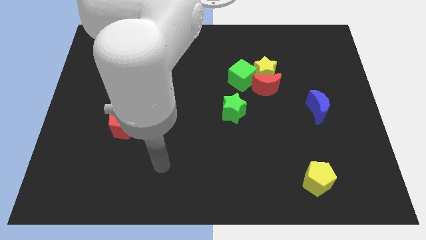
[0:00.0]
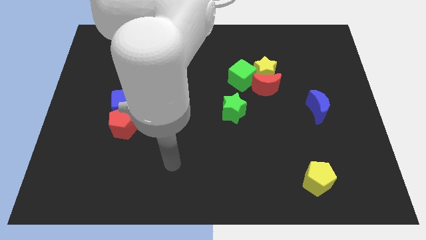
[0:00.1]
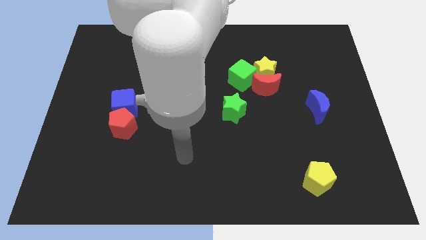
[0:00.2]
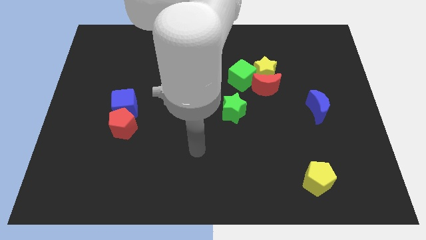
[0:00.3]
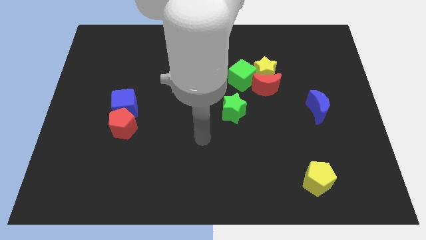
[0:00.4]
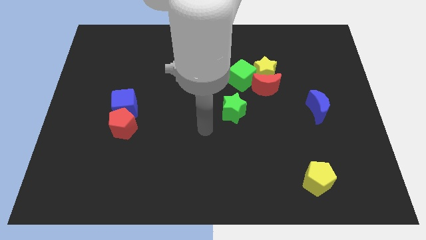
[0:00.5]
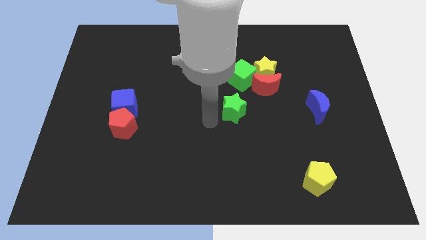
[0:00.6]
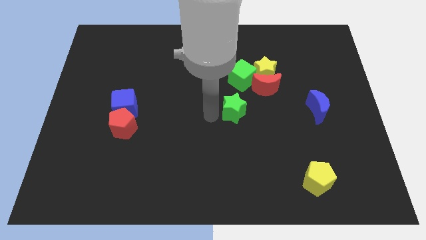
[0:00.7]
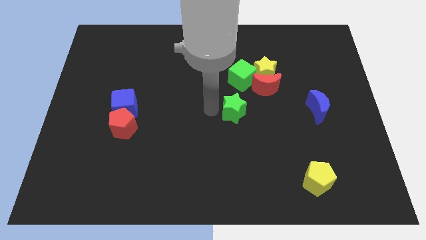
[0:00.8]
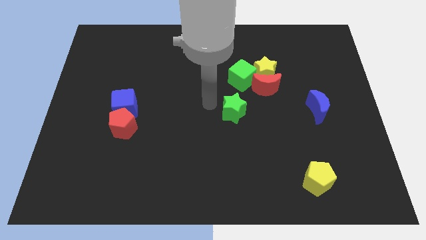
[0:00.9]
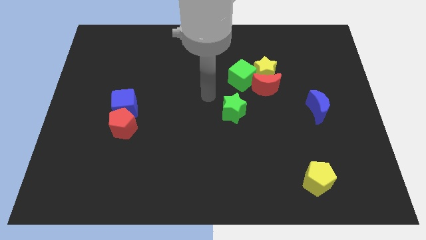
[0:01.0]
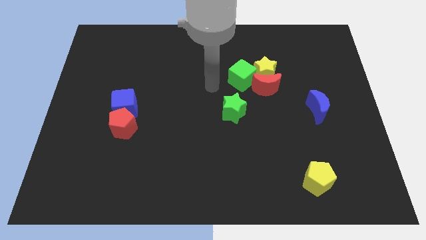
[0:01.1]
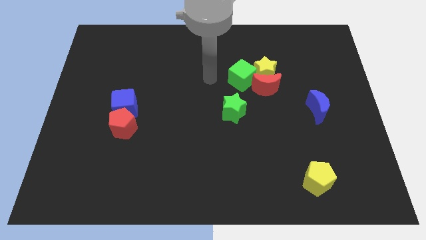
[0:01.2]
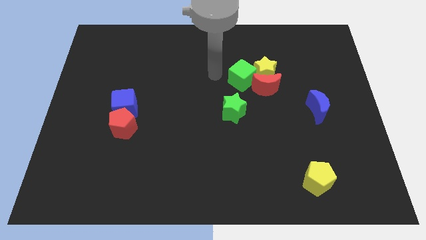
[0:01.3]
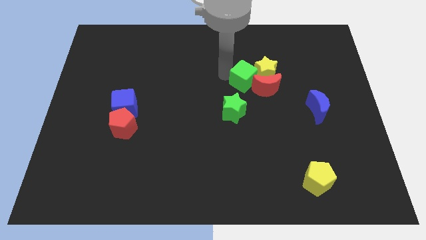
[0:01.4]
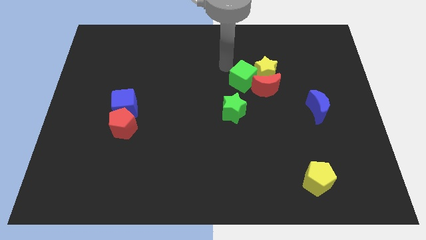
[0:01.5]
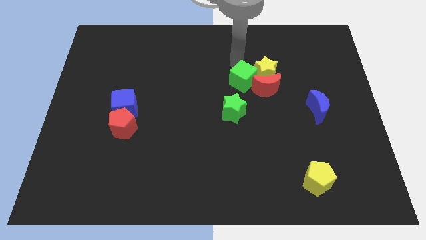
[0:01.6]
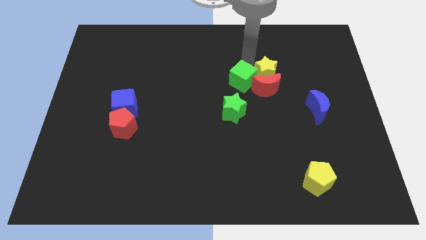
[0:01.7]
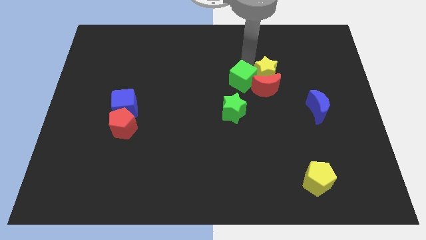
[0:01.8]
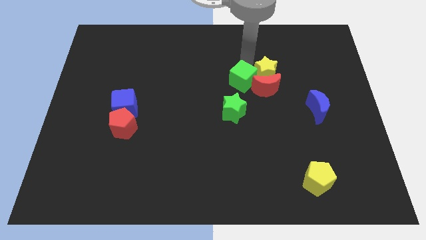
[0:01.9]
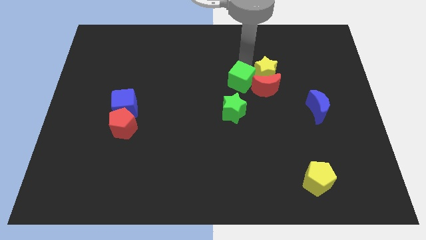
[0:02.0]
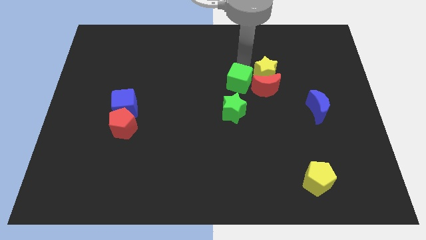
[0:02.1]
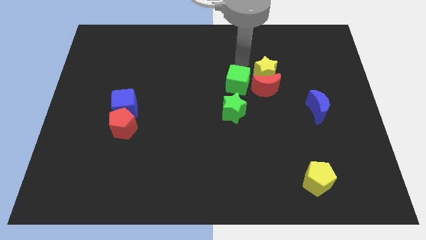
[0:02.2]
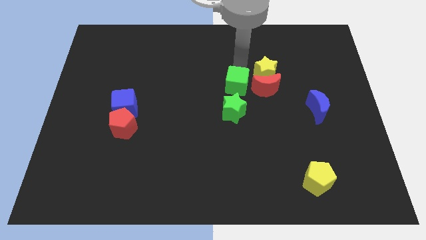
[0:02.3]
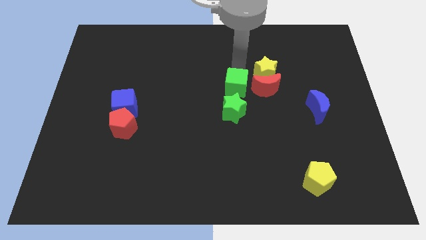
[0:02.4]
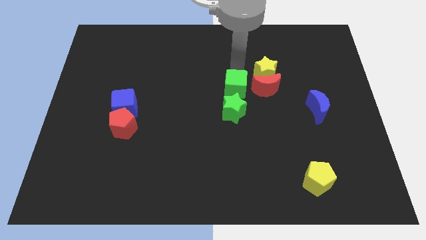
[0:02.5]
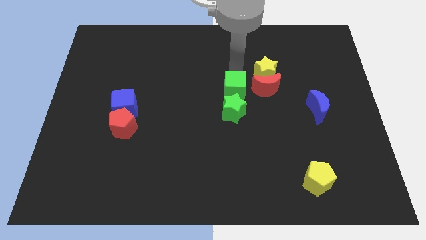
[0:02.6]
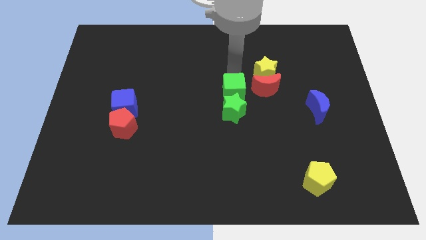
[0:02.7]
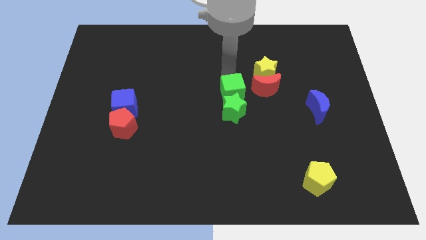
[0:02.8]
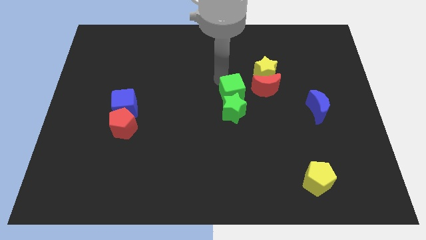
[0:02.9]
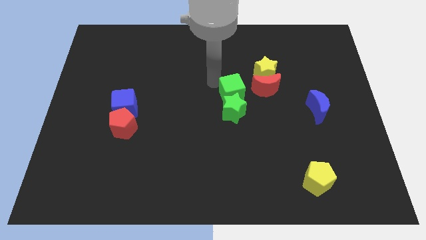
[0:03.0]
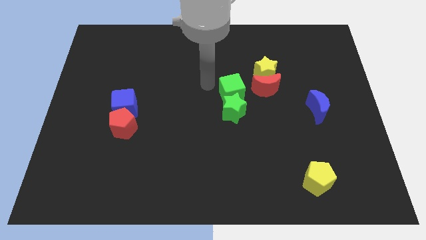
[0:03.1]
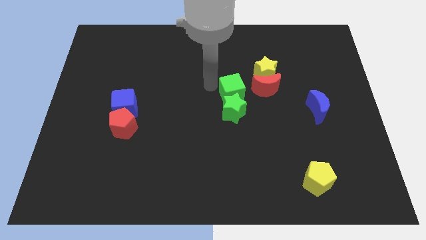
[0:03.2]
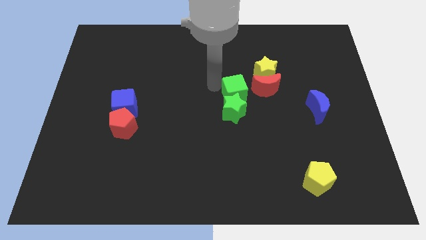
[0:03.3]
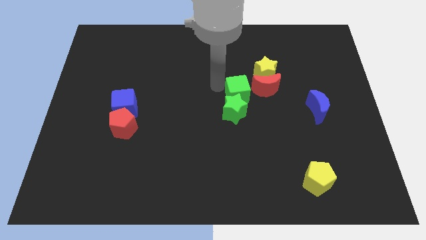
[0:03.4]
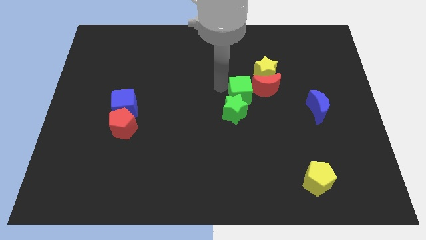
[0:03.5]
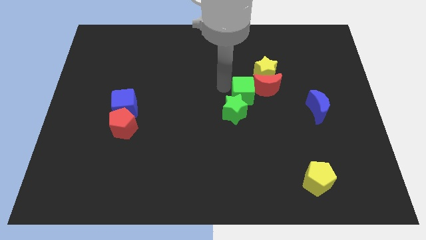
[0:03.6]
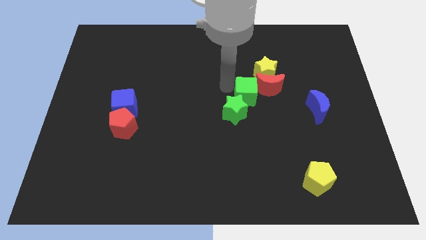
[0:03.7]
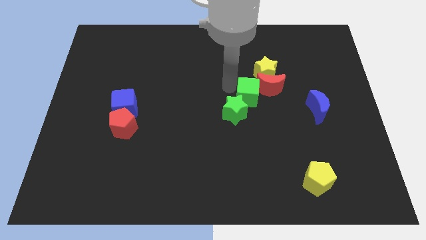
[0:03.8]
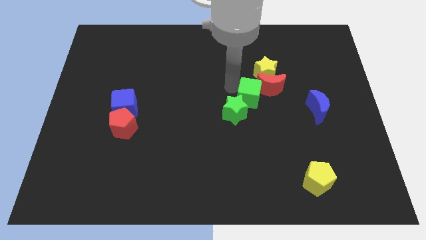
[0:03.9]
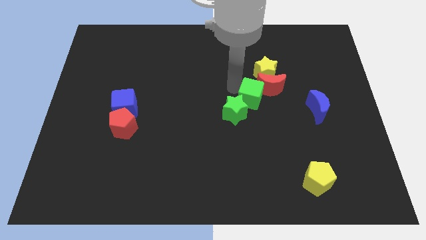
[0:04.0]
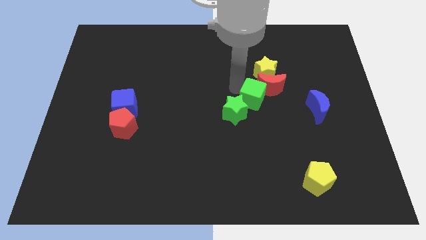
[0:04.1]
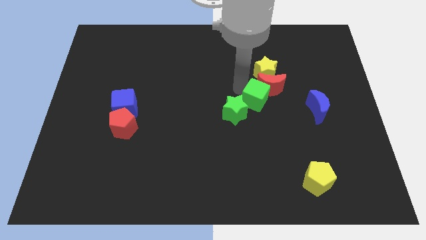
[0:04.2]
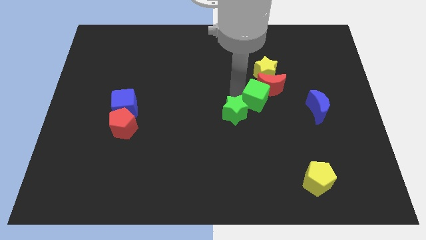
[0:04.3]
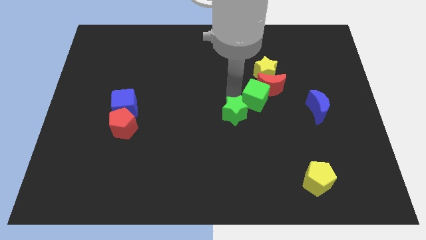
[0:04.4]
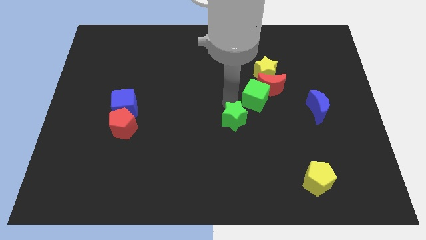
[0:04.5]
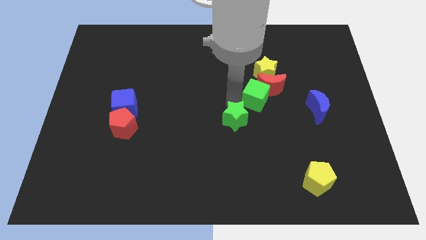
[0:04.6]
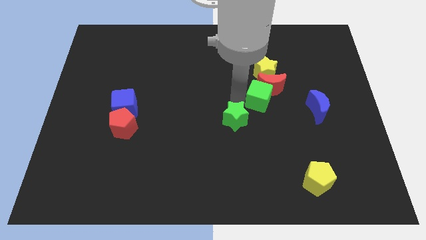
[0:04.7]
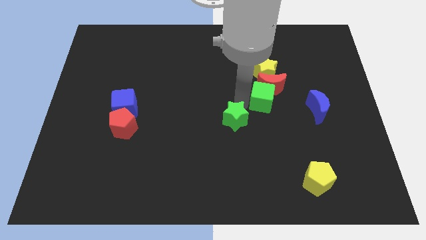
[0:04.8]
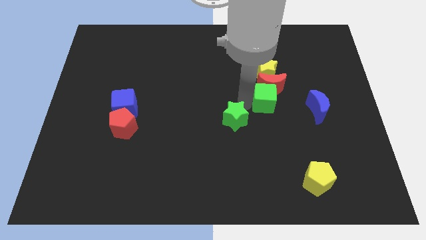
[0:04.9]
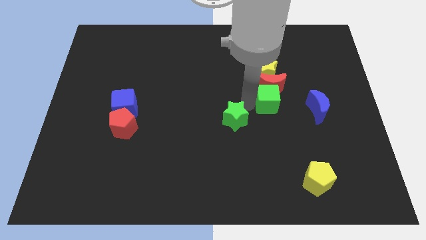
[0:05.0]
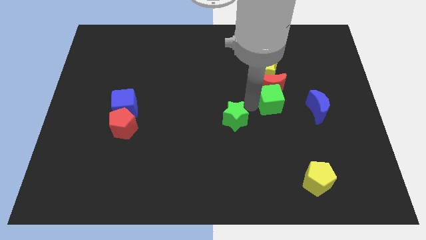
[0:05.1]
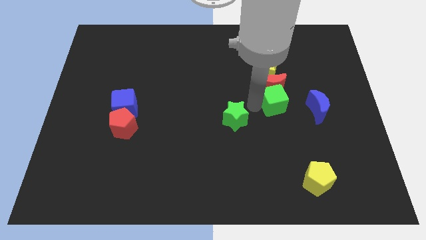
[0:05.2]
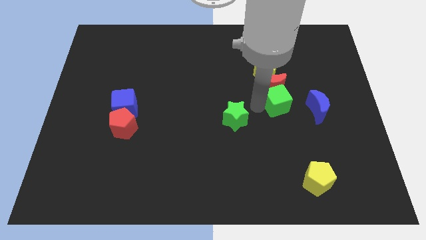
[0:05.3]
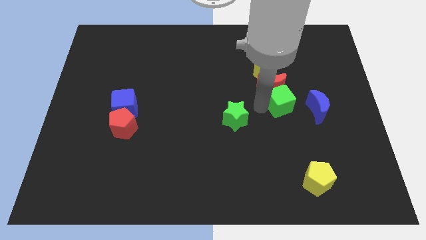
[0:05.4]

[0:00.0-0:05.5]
slide the green cube diagonally down and to the right of the yellow star

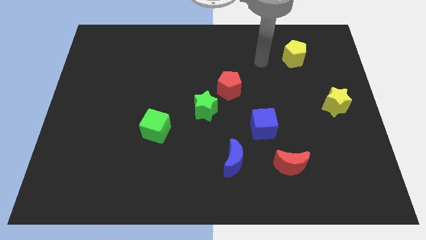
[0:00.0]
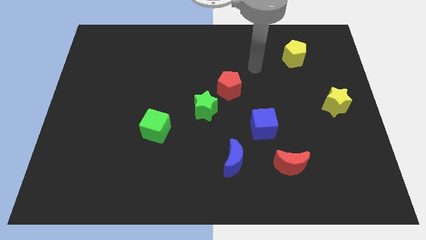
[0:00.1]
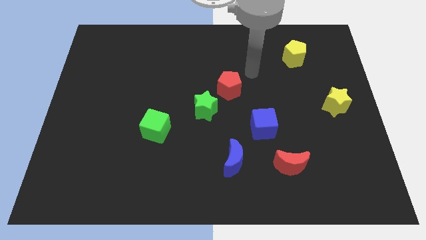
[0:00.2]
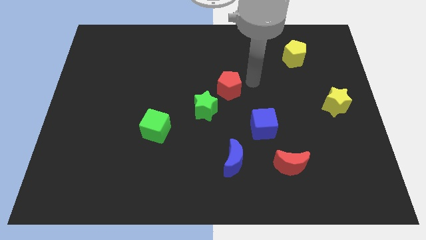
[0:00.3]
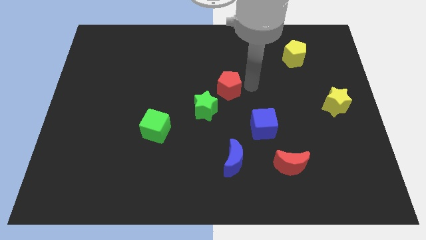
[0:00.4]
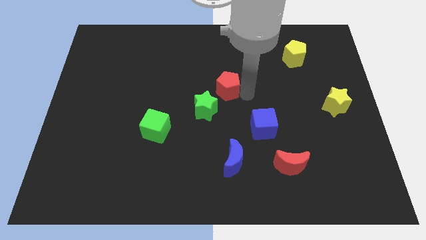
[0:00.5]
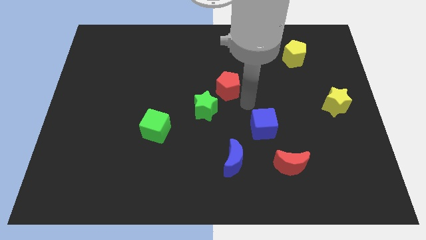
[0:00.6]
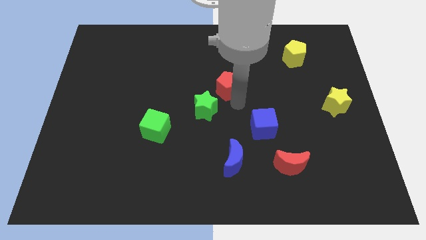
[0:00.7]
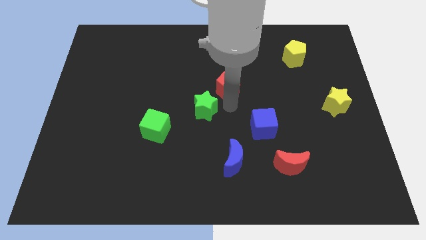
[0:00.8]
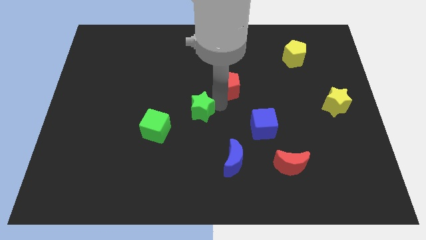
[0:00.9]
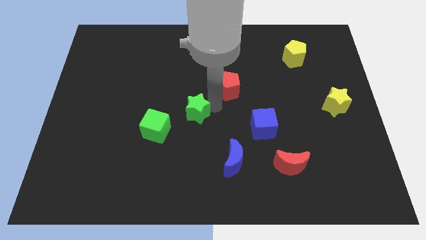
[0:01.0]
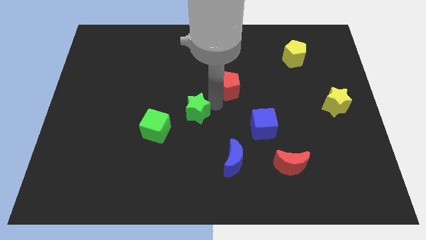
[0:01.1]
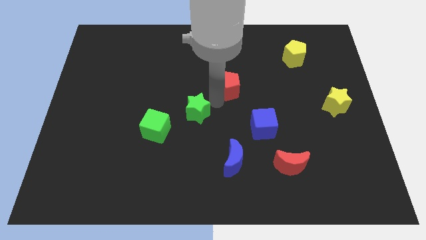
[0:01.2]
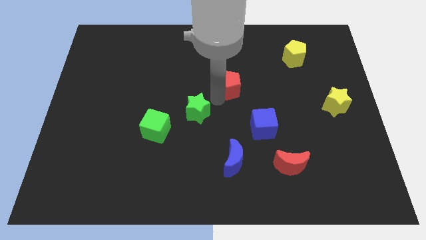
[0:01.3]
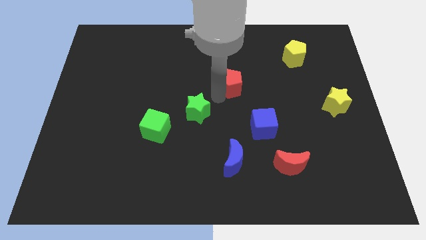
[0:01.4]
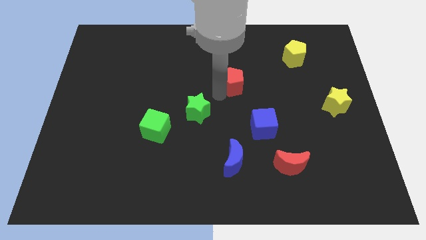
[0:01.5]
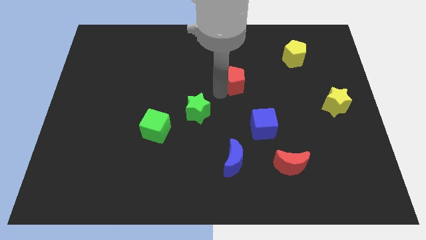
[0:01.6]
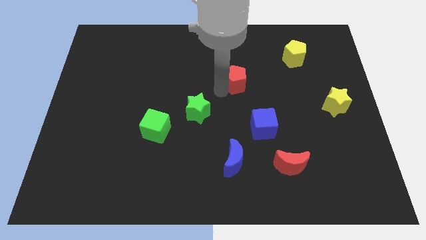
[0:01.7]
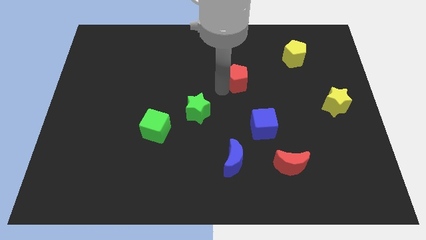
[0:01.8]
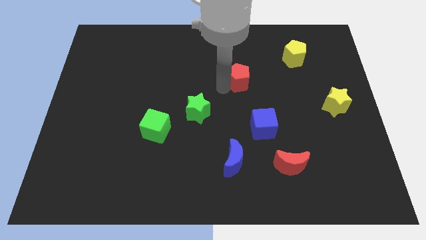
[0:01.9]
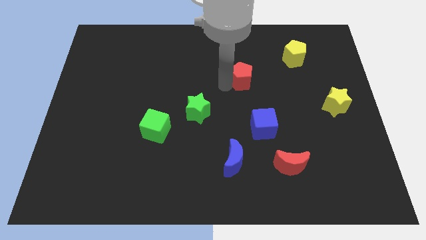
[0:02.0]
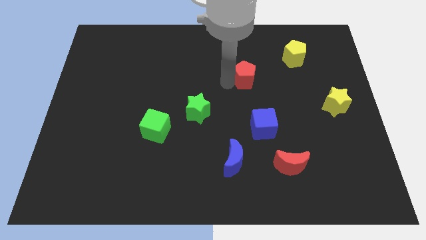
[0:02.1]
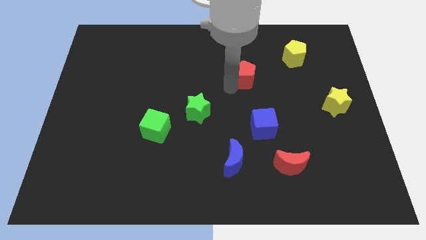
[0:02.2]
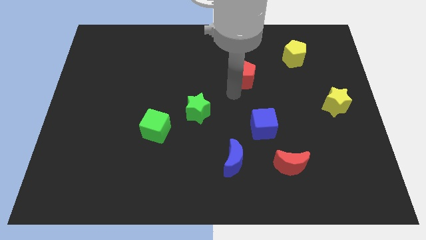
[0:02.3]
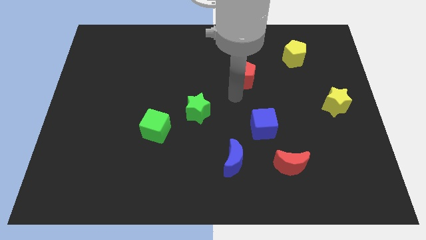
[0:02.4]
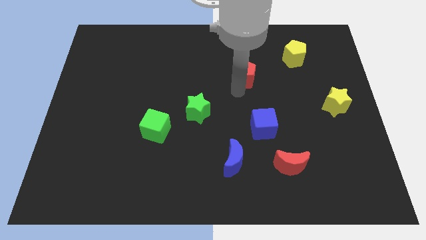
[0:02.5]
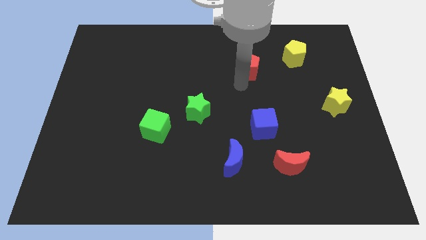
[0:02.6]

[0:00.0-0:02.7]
push the red pentagon just left of the yellow pentagon
